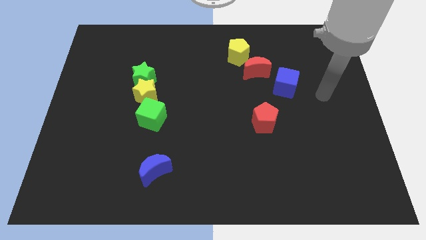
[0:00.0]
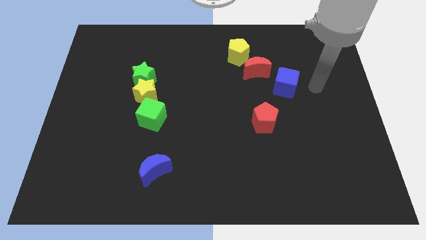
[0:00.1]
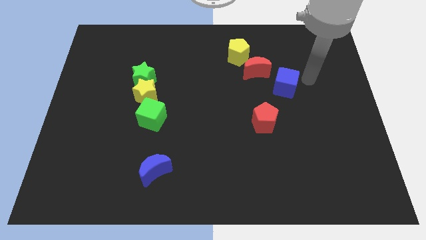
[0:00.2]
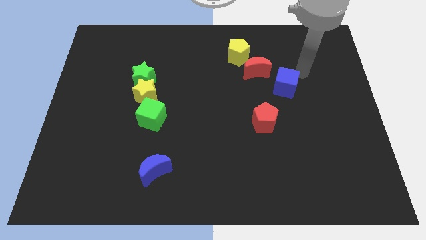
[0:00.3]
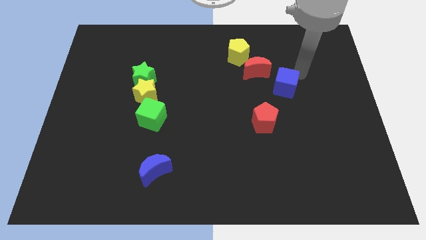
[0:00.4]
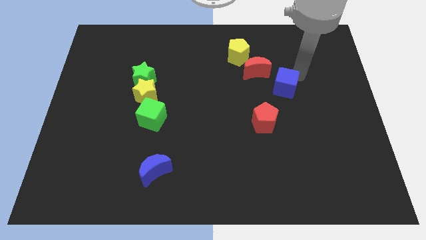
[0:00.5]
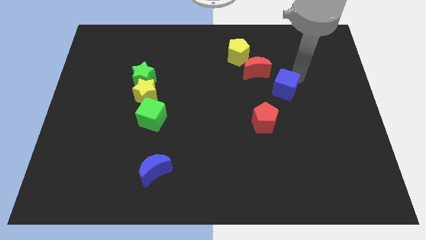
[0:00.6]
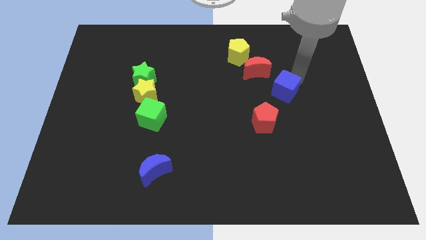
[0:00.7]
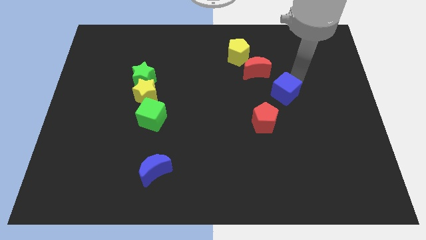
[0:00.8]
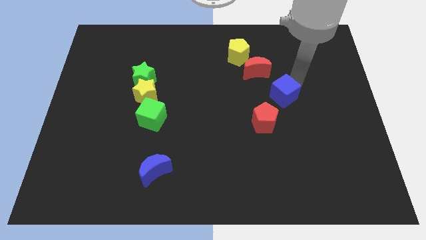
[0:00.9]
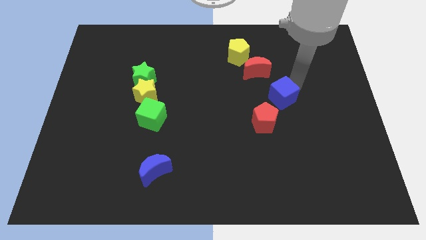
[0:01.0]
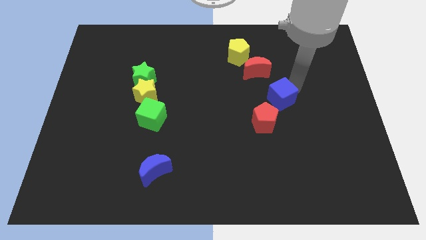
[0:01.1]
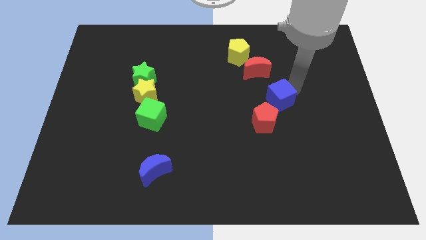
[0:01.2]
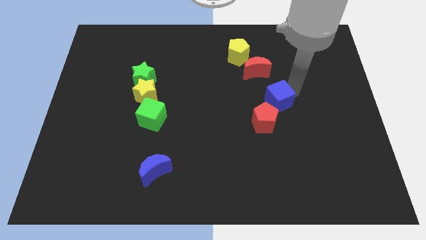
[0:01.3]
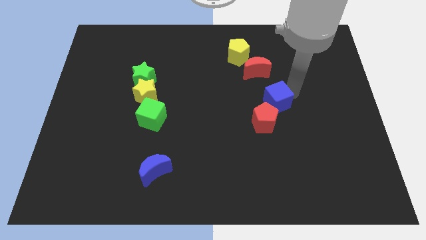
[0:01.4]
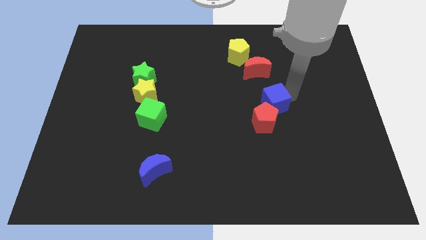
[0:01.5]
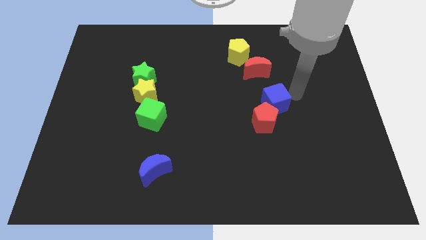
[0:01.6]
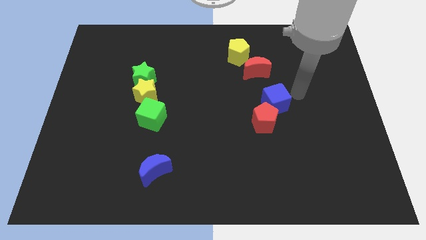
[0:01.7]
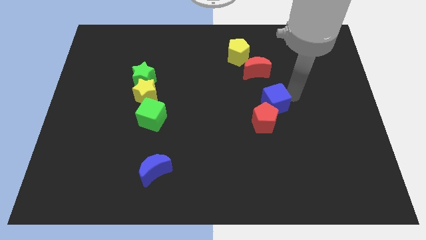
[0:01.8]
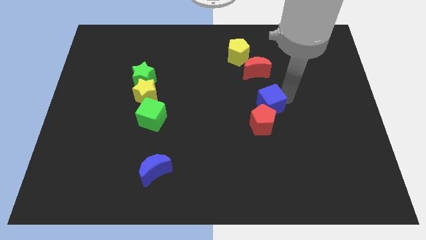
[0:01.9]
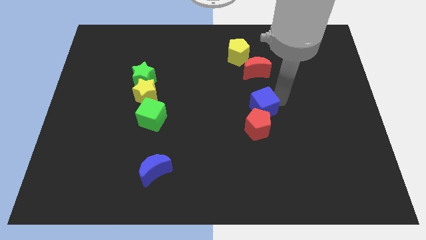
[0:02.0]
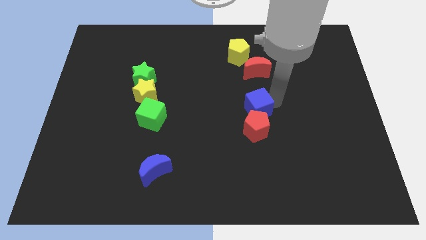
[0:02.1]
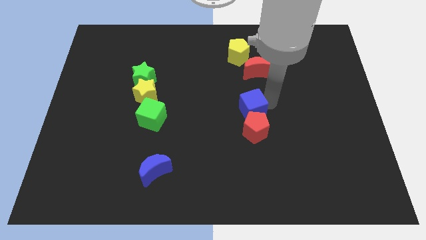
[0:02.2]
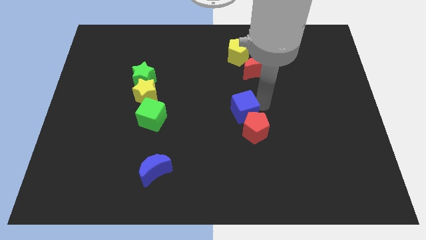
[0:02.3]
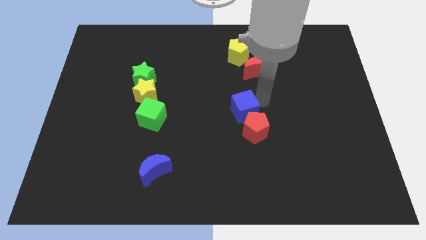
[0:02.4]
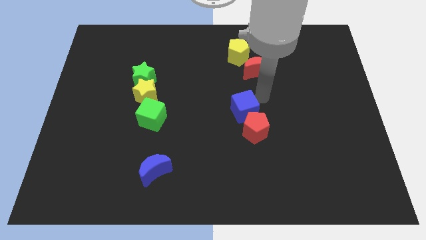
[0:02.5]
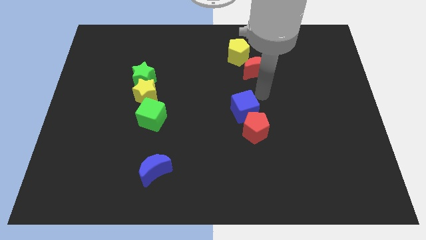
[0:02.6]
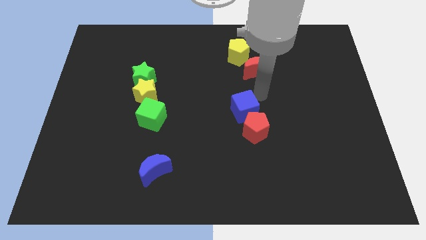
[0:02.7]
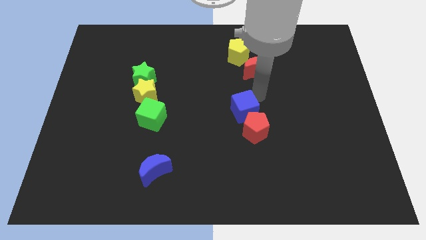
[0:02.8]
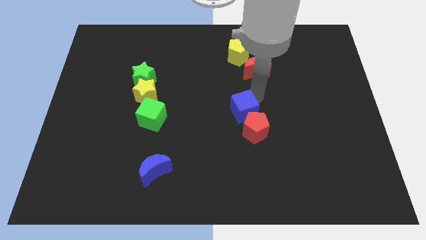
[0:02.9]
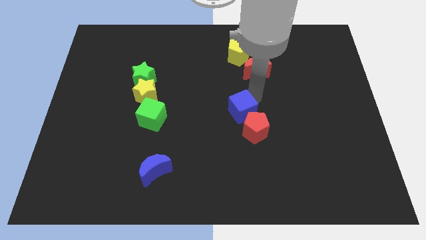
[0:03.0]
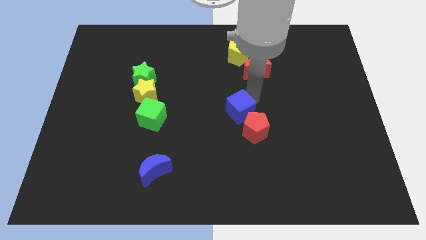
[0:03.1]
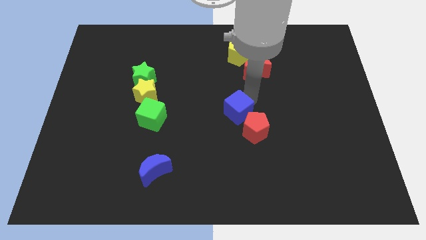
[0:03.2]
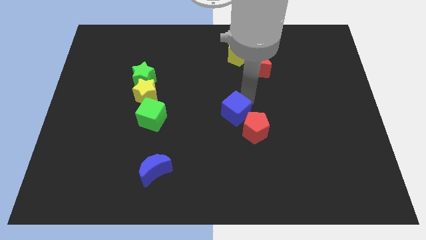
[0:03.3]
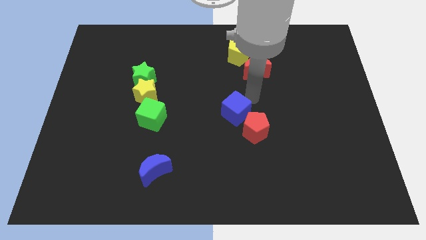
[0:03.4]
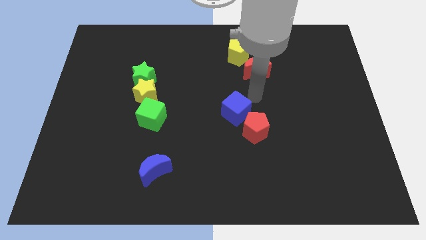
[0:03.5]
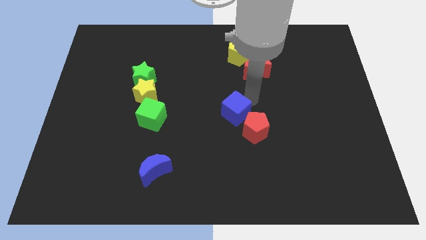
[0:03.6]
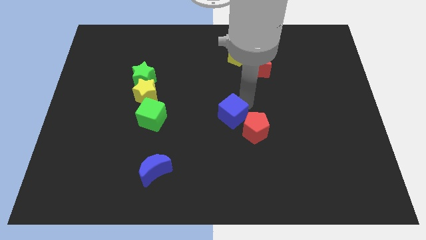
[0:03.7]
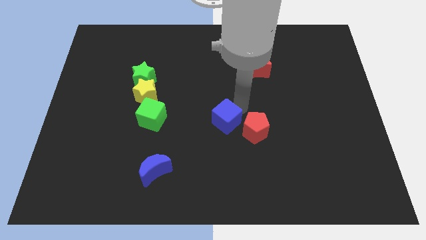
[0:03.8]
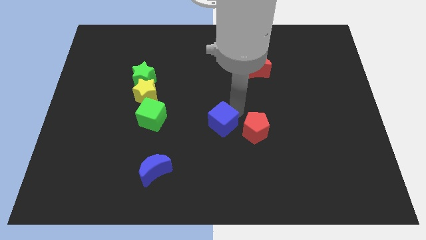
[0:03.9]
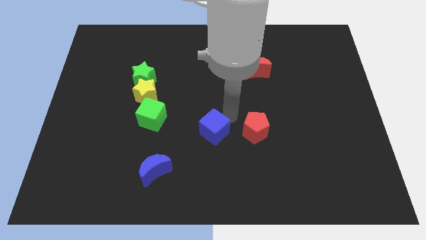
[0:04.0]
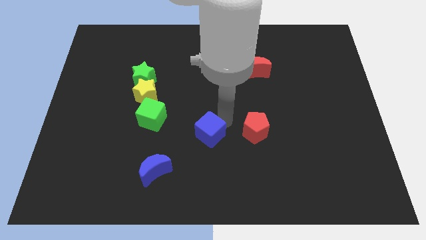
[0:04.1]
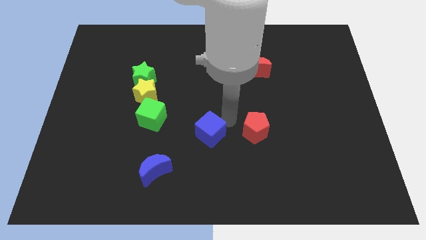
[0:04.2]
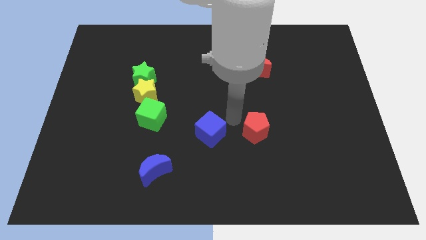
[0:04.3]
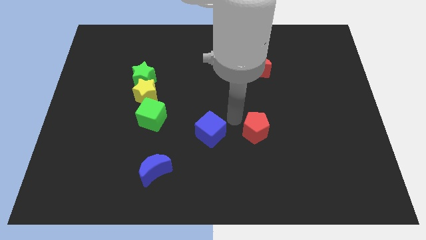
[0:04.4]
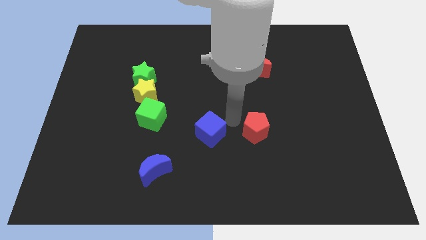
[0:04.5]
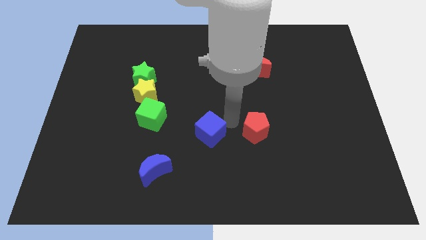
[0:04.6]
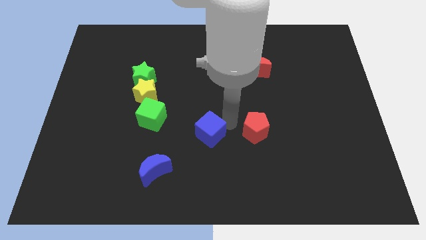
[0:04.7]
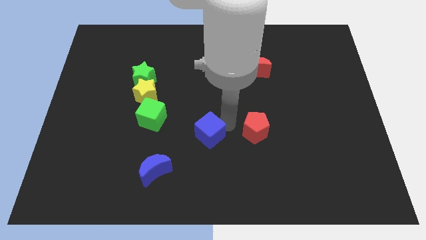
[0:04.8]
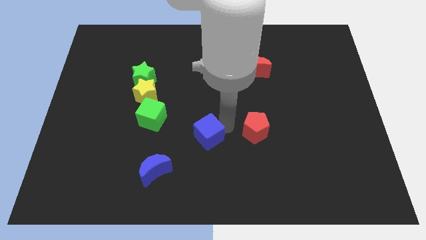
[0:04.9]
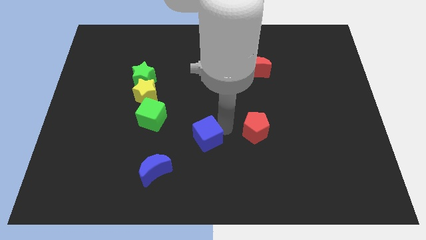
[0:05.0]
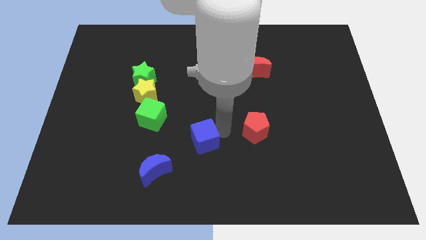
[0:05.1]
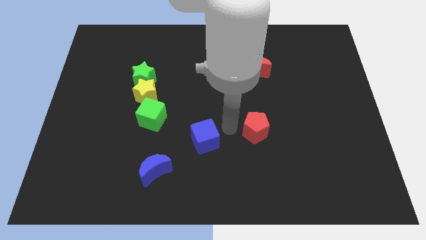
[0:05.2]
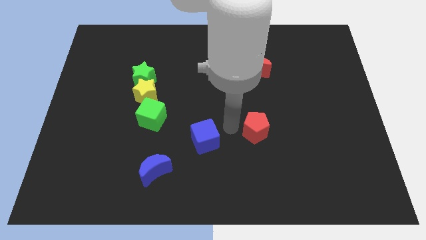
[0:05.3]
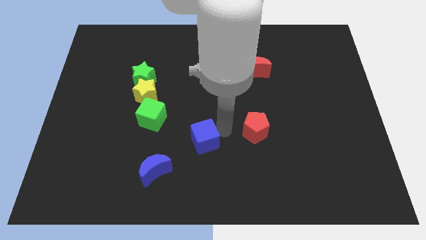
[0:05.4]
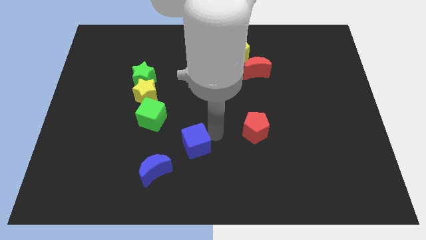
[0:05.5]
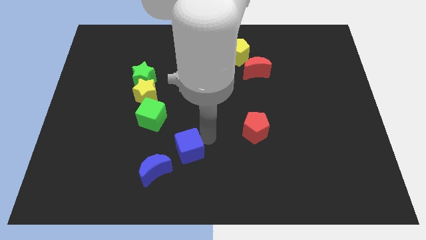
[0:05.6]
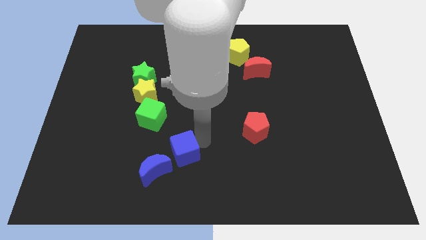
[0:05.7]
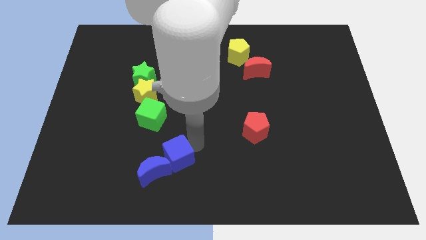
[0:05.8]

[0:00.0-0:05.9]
push the blue cube towards the blue moon
